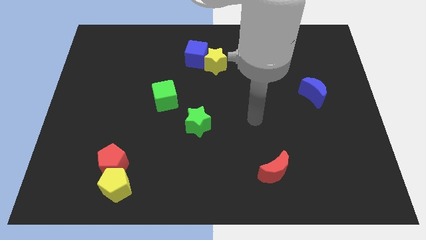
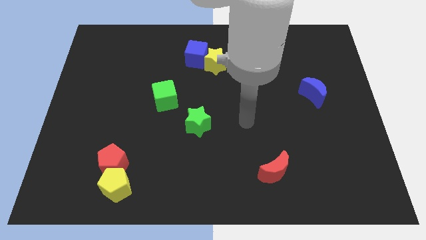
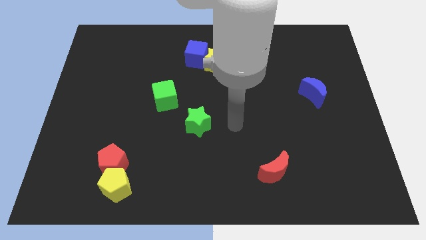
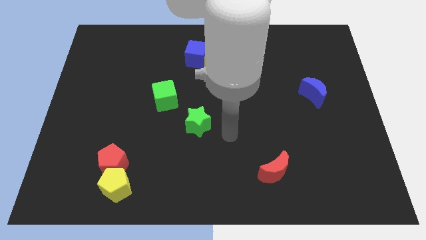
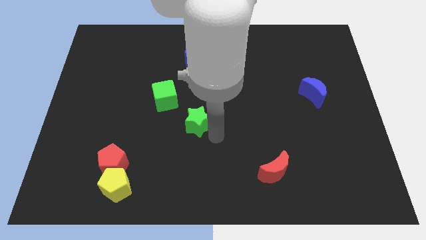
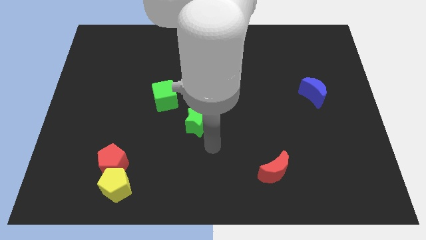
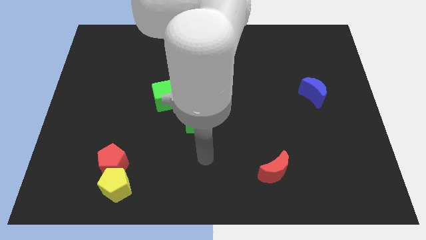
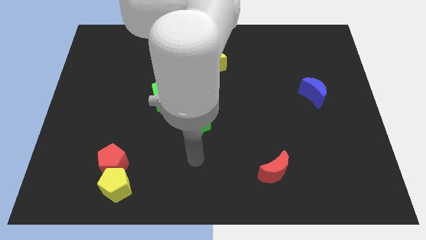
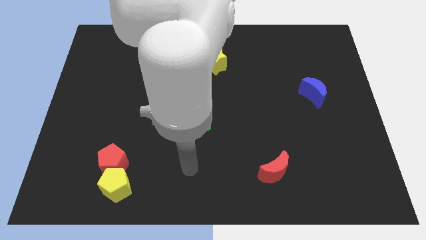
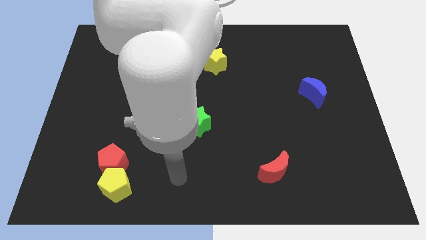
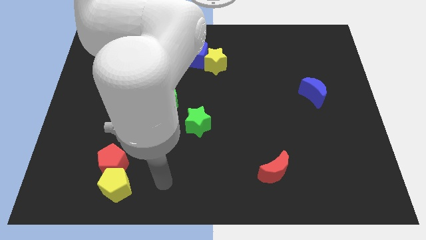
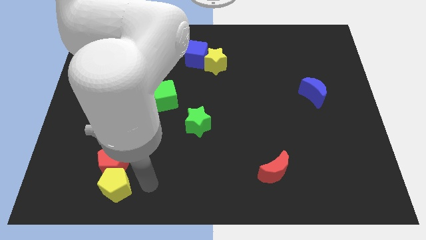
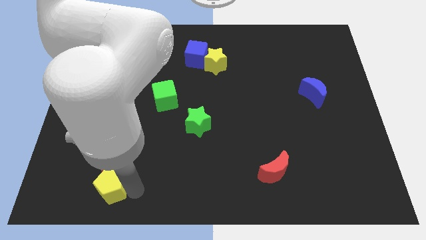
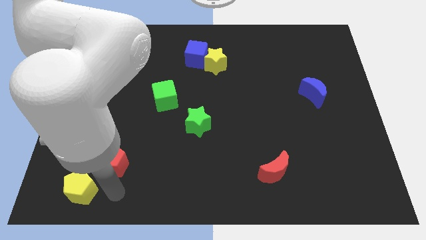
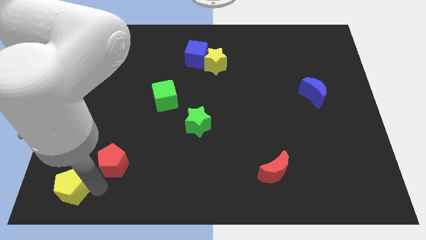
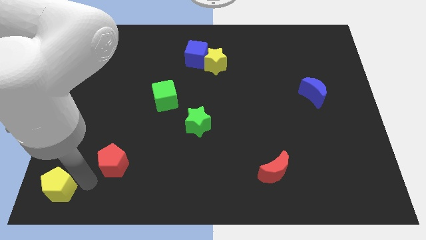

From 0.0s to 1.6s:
pull the red pentagon apart from the yellow pentagon

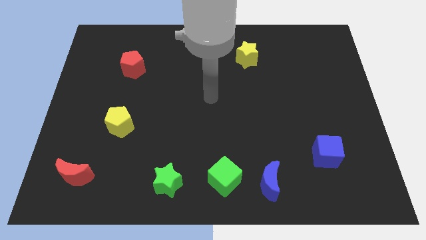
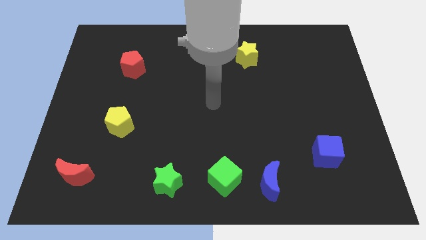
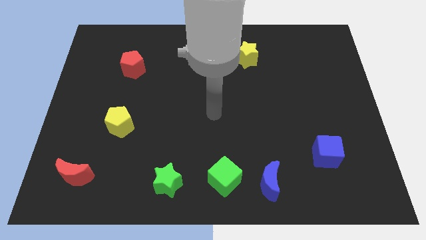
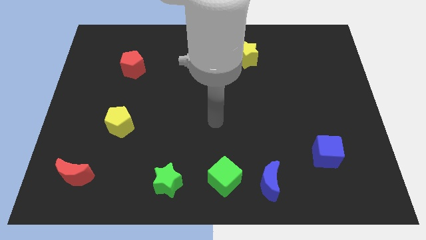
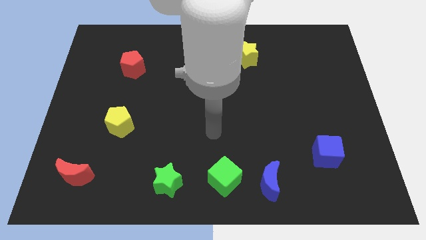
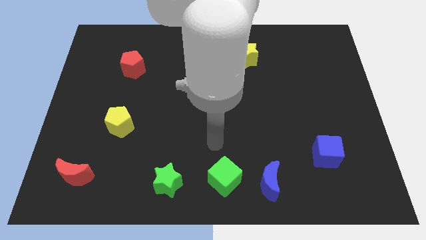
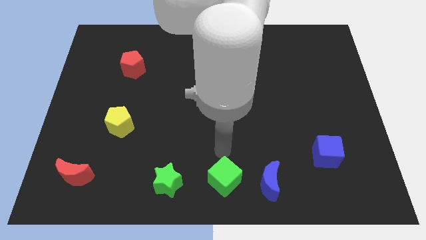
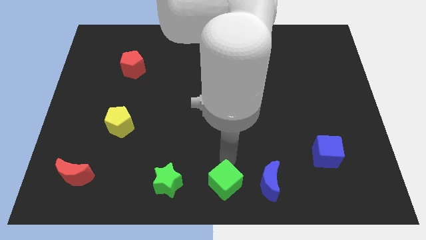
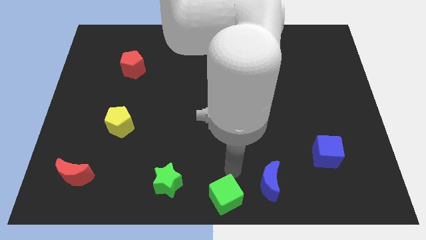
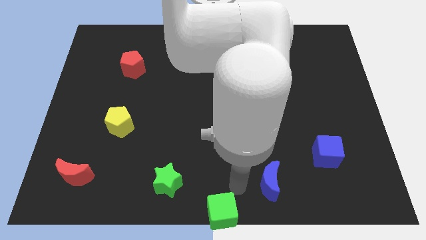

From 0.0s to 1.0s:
pull the blue moon apart from the green cube

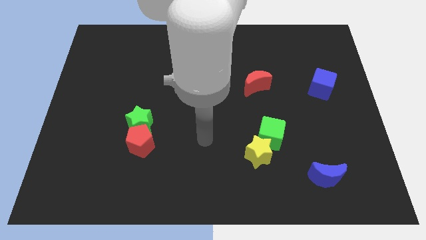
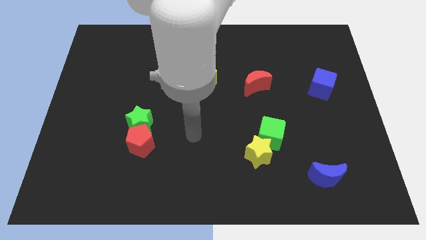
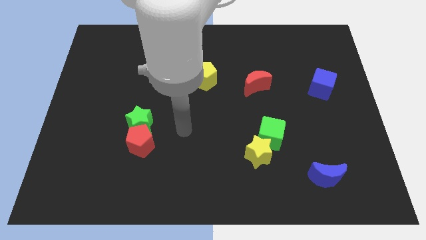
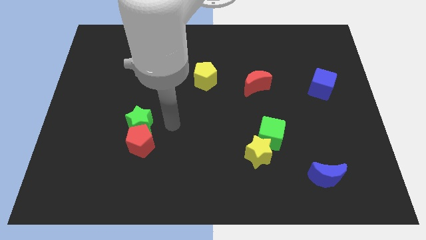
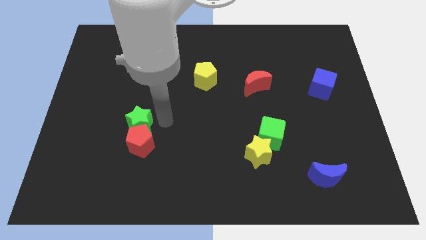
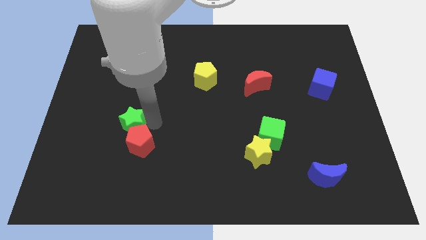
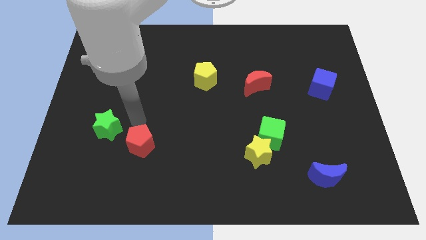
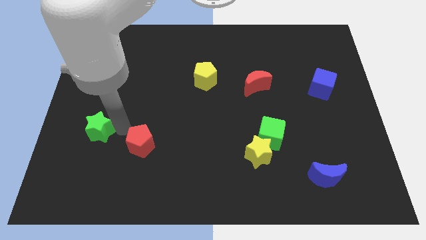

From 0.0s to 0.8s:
separate the red pentagon from the green star

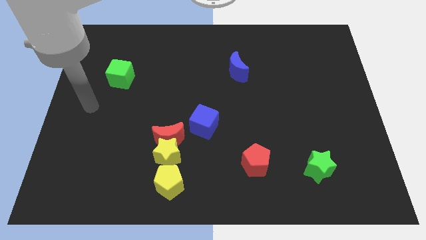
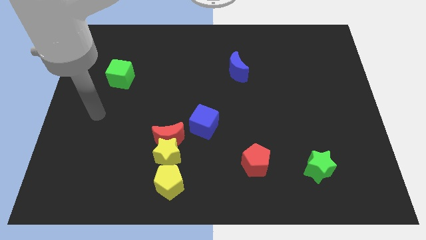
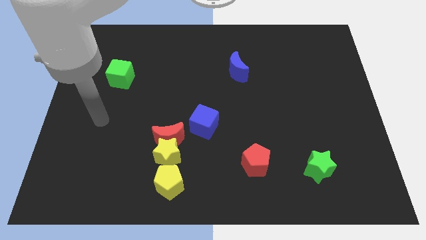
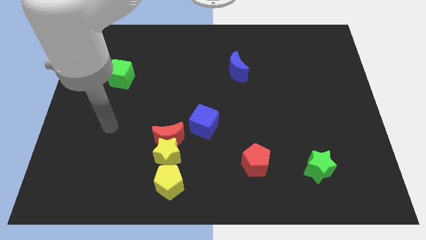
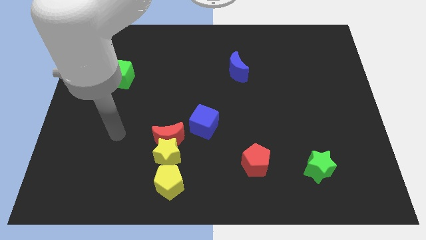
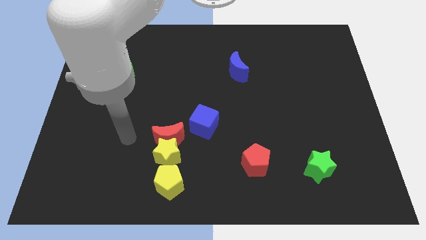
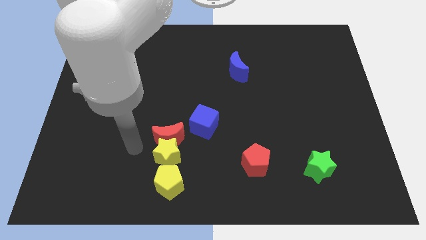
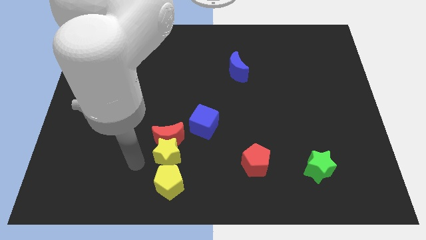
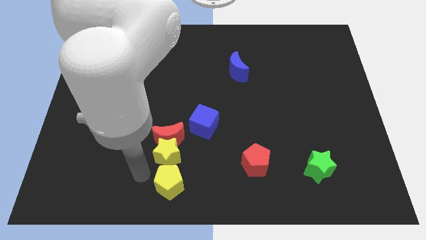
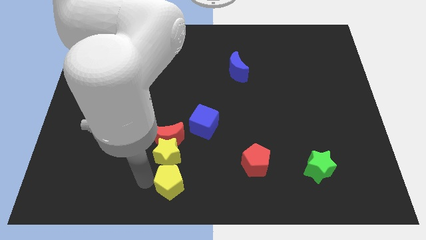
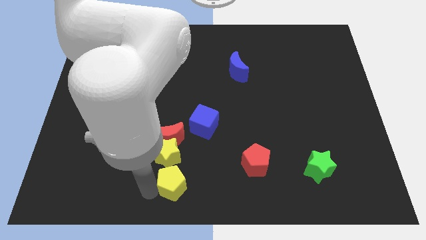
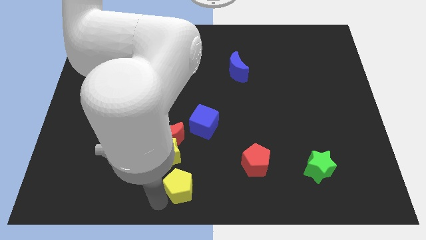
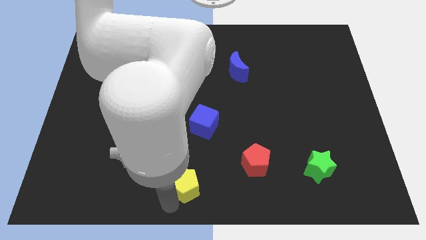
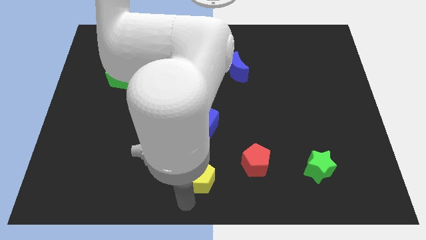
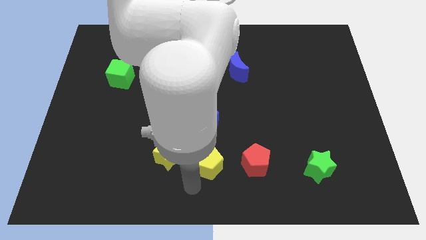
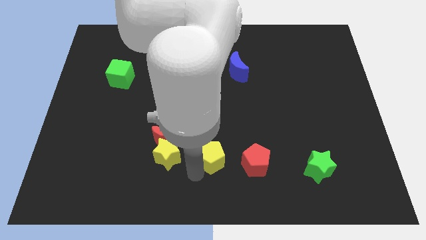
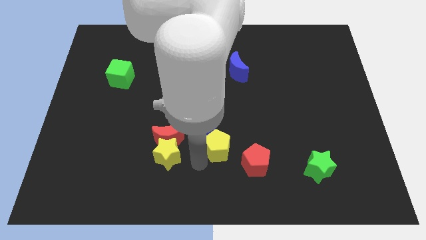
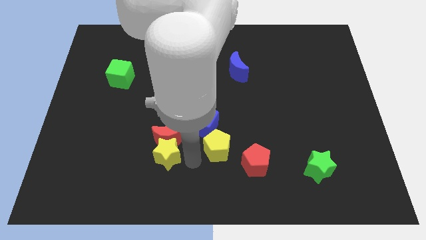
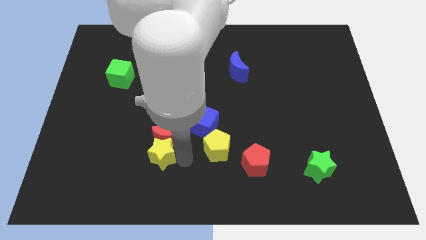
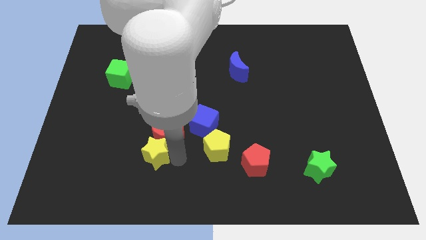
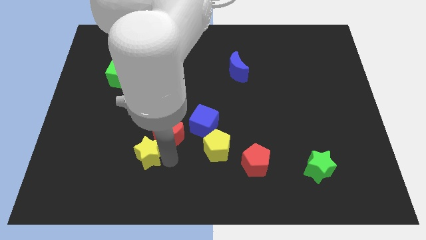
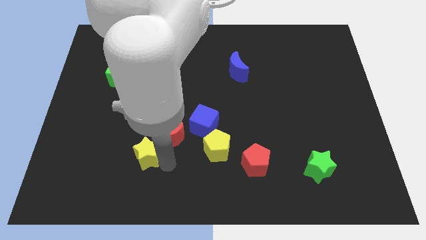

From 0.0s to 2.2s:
move the yellow star away from the red moon and yellow pentagon

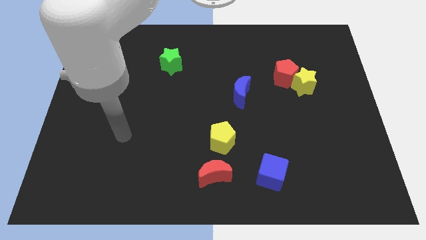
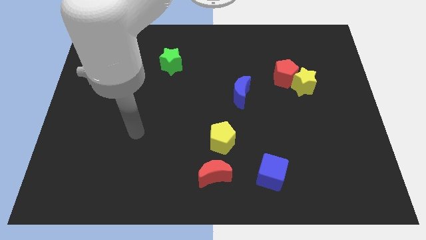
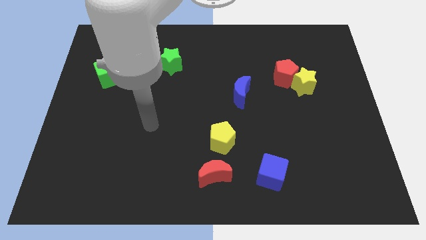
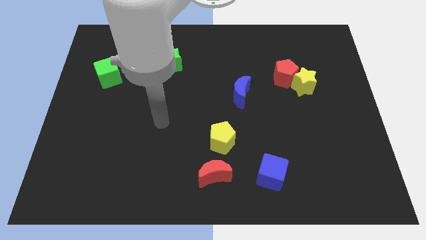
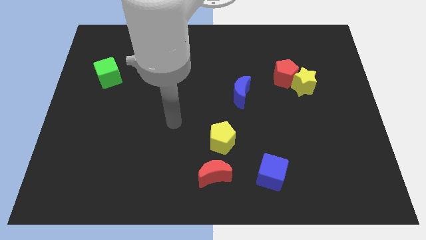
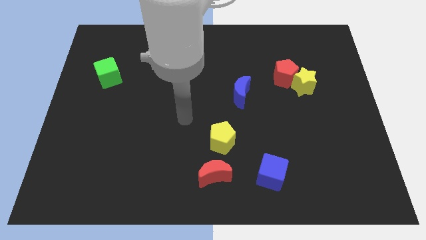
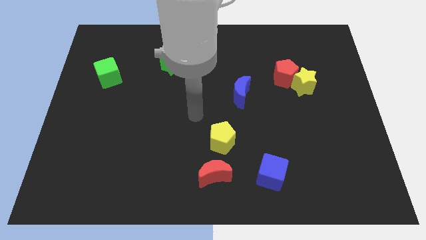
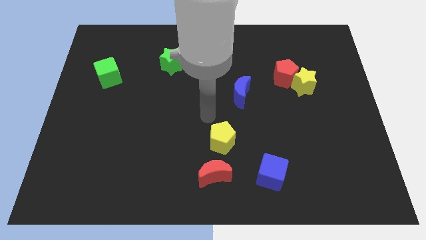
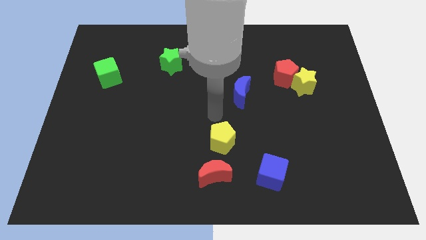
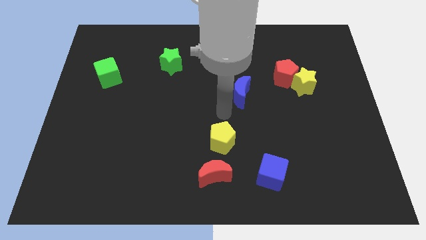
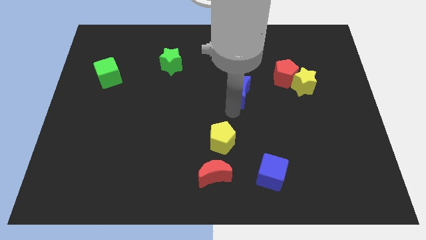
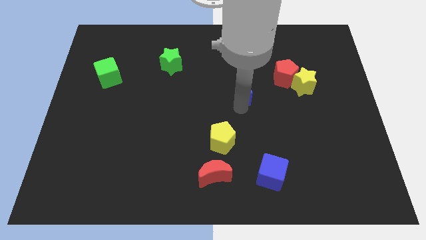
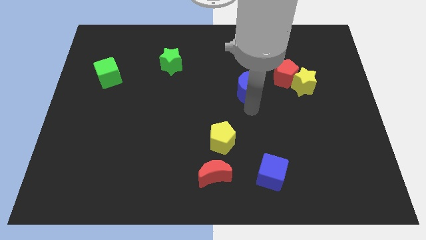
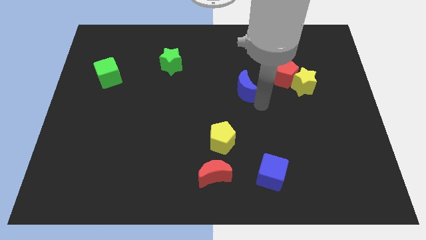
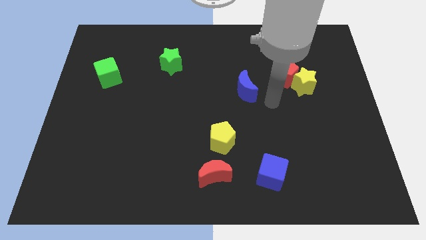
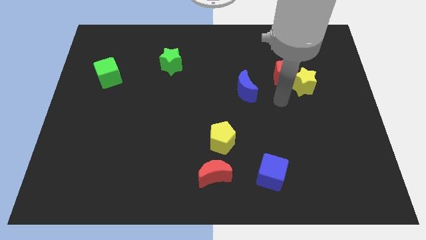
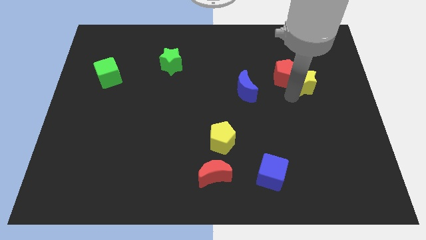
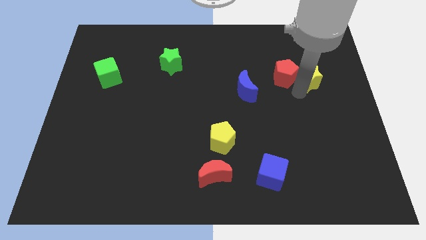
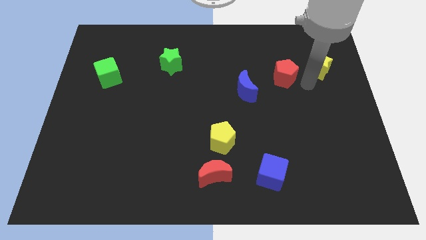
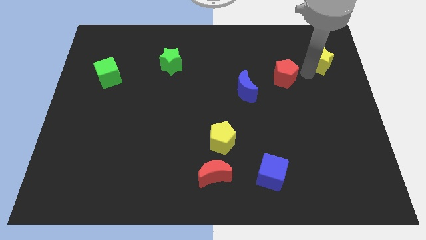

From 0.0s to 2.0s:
separate the red pentagon from the yellow star

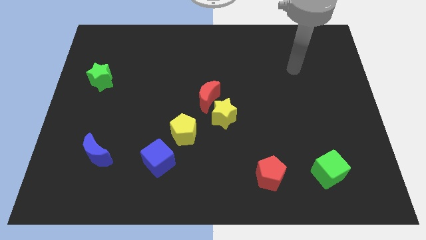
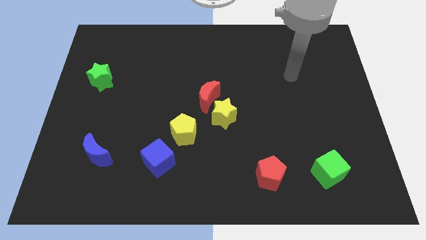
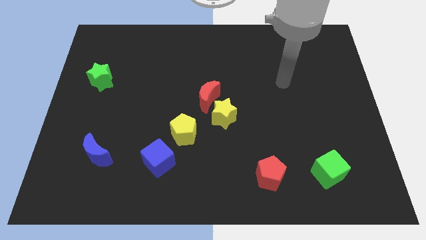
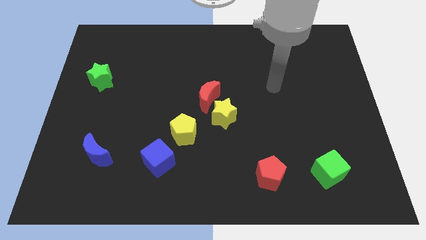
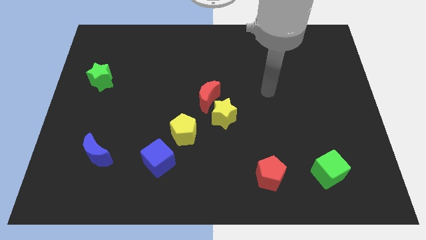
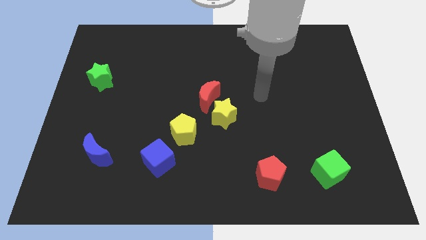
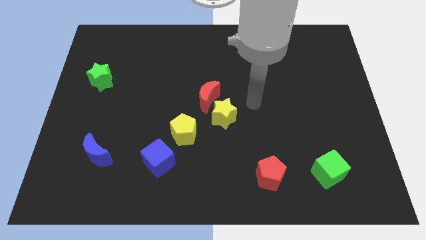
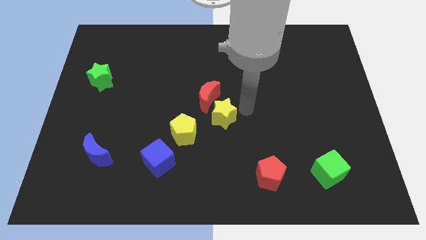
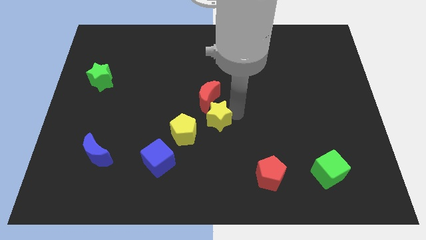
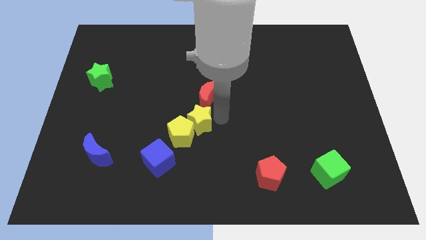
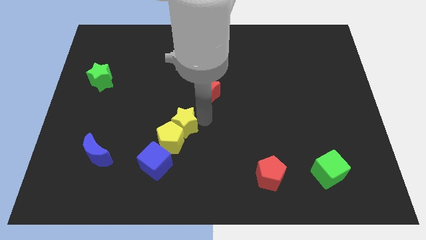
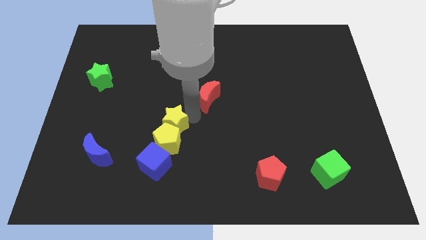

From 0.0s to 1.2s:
pull the red moon apart from the yellow star

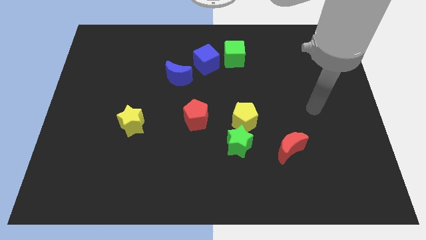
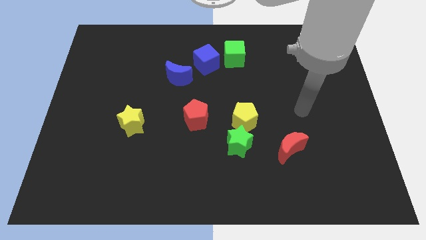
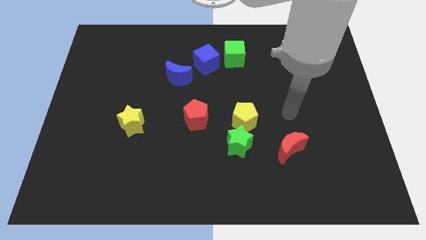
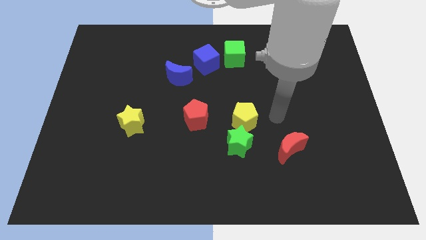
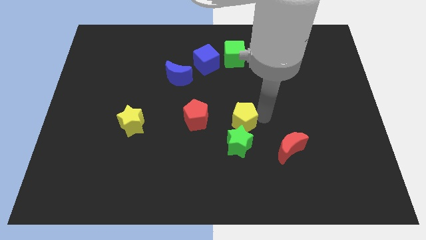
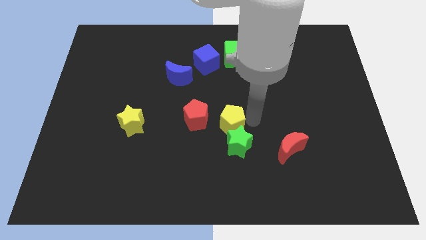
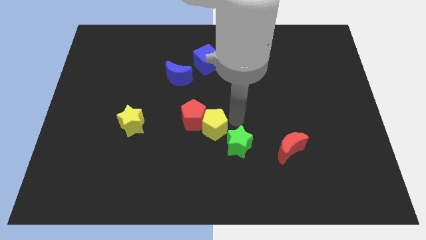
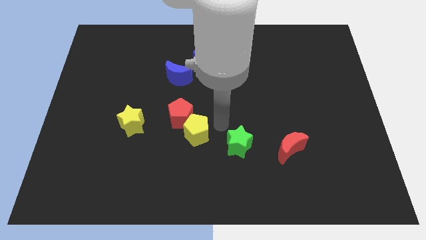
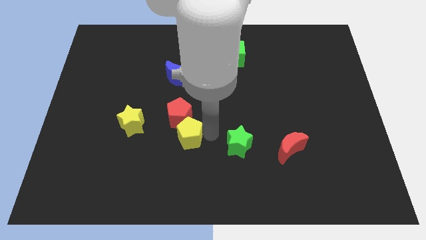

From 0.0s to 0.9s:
separate the green star from the yellow pentagon
